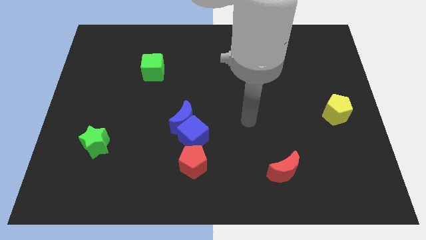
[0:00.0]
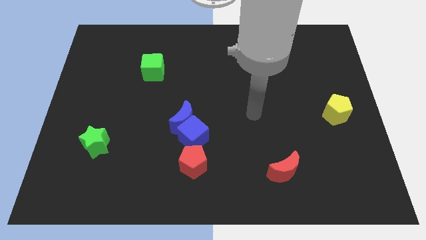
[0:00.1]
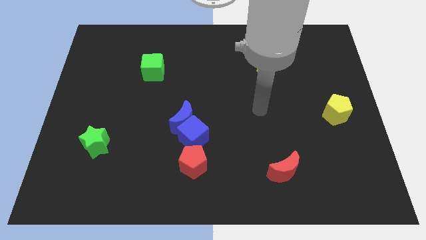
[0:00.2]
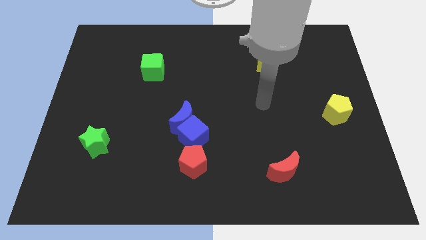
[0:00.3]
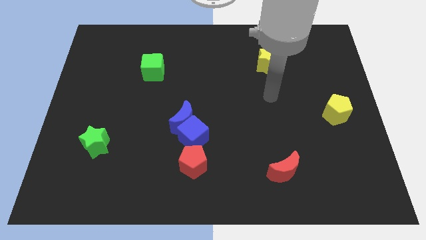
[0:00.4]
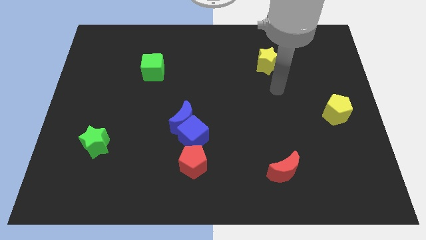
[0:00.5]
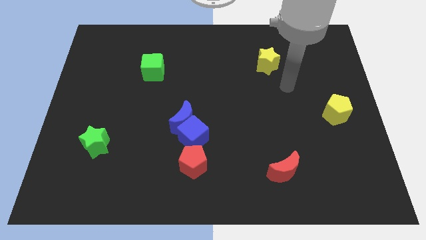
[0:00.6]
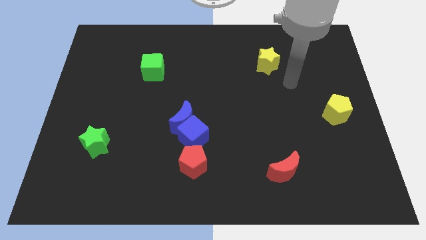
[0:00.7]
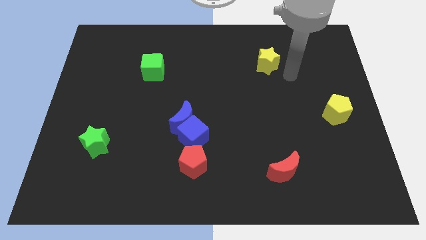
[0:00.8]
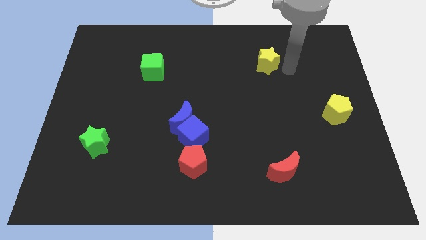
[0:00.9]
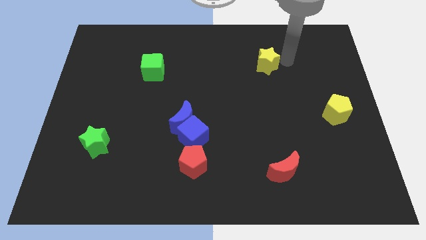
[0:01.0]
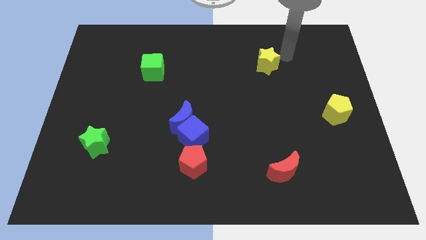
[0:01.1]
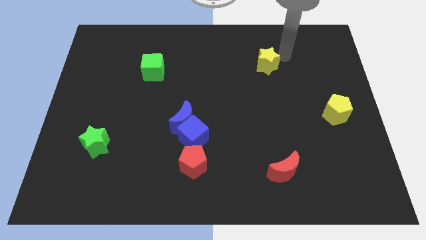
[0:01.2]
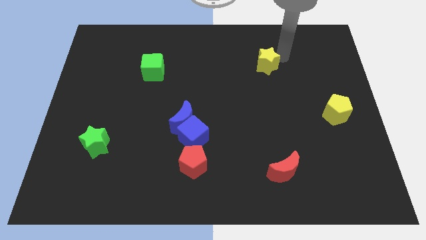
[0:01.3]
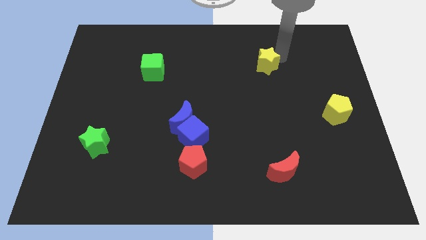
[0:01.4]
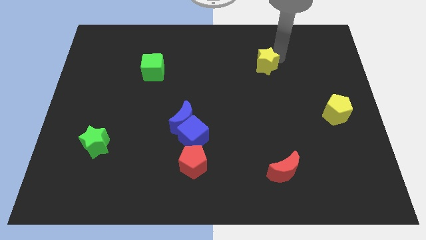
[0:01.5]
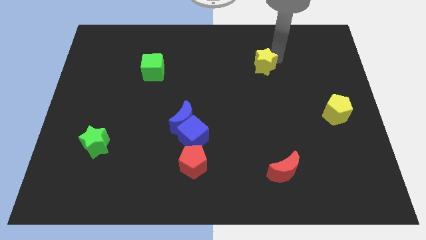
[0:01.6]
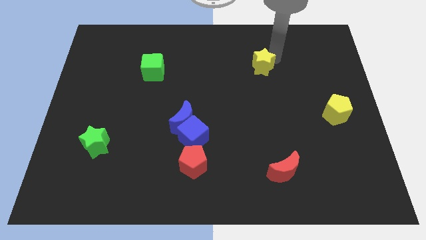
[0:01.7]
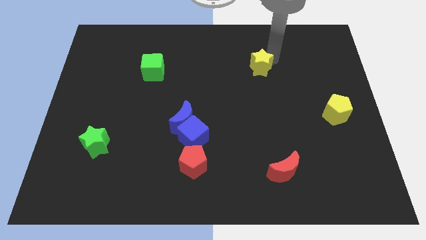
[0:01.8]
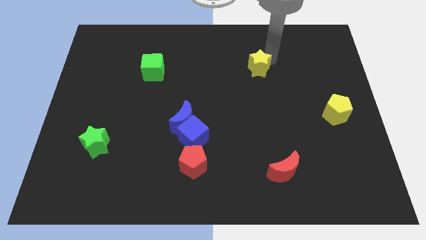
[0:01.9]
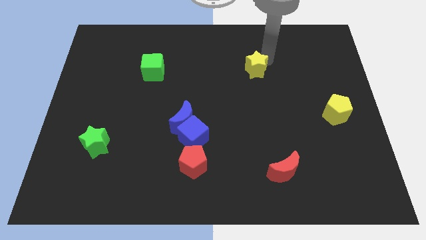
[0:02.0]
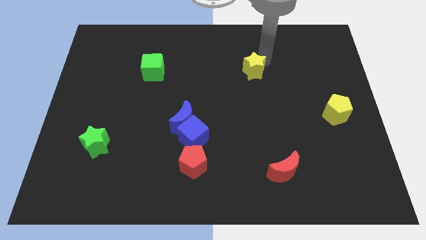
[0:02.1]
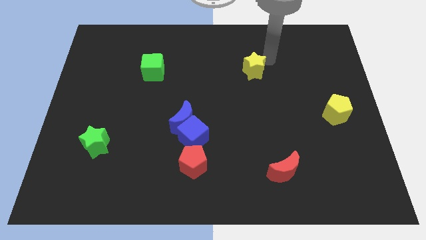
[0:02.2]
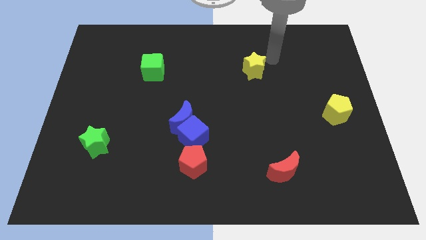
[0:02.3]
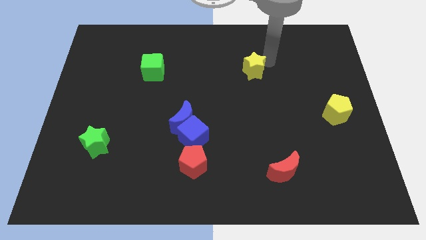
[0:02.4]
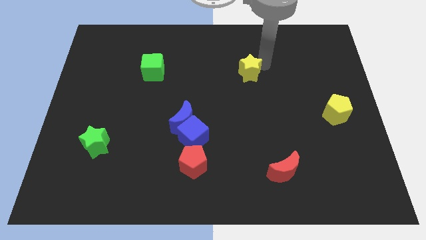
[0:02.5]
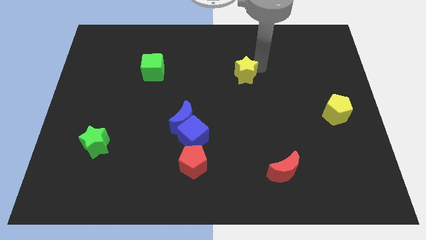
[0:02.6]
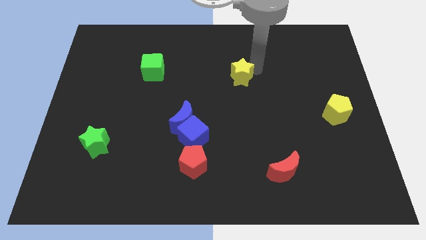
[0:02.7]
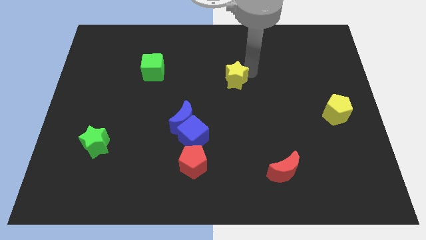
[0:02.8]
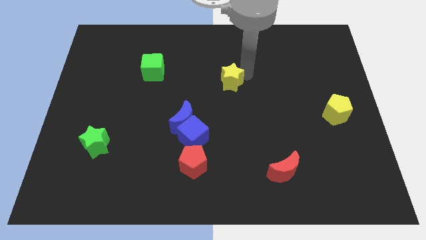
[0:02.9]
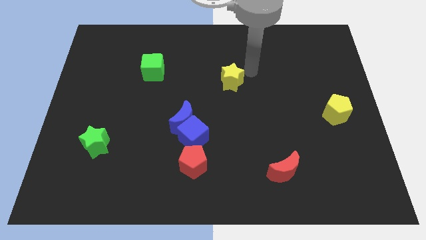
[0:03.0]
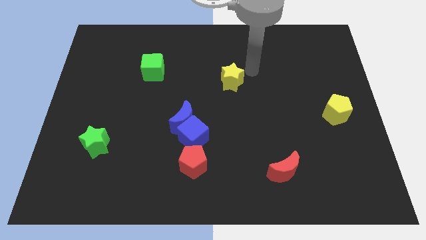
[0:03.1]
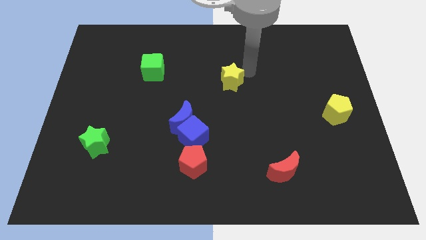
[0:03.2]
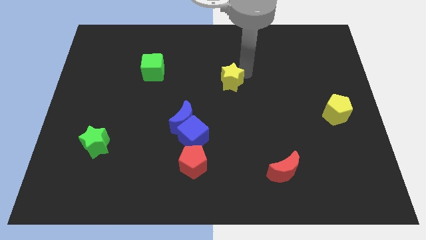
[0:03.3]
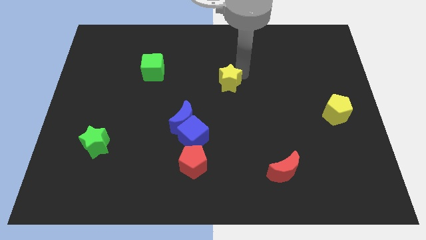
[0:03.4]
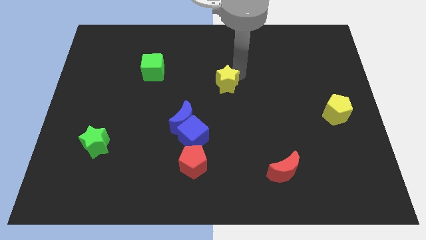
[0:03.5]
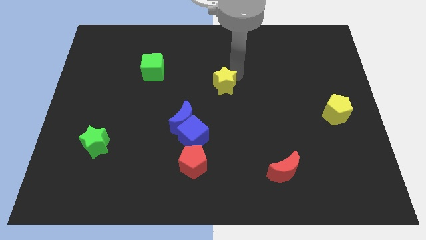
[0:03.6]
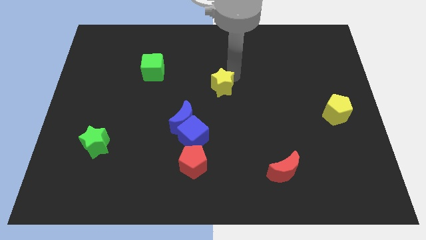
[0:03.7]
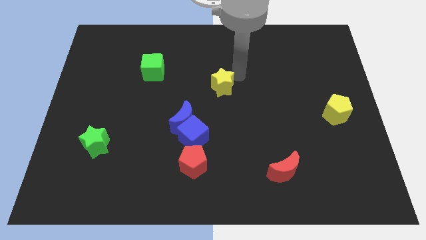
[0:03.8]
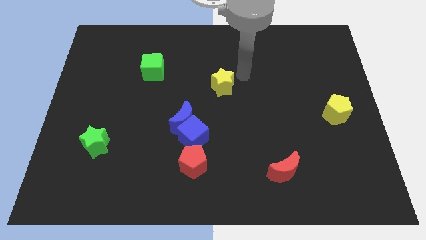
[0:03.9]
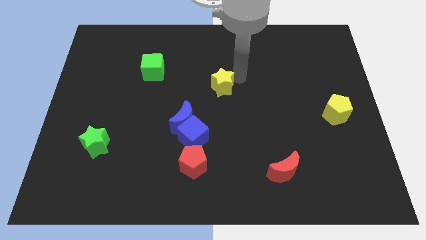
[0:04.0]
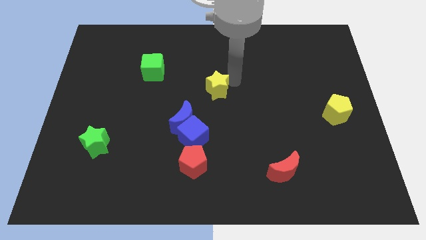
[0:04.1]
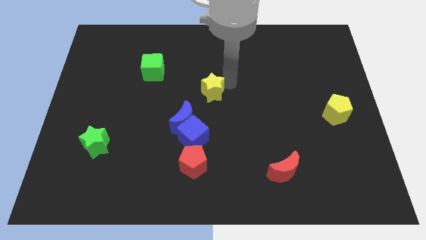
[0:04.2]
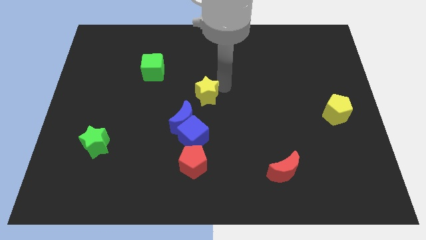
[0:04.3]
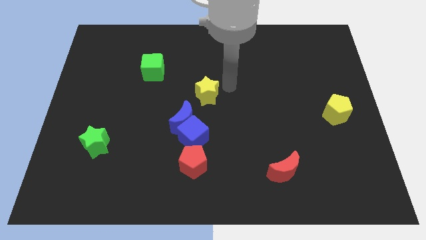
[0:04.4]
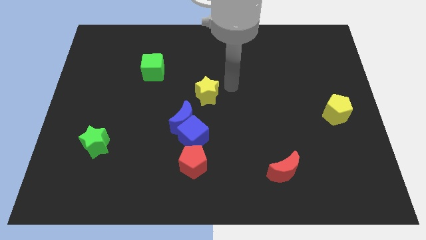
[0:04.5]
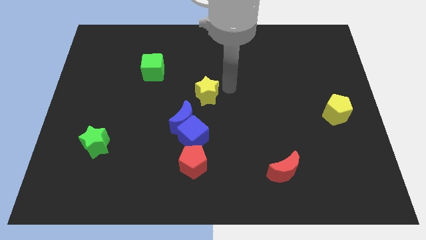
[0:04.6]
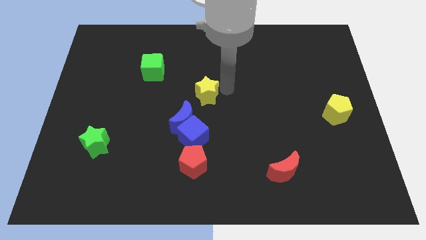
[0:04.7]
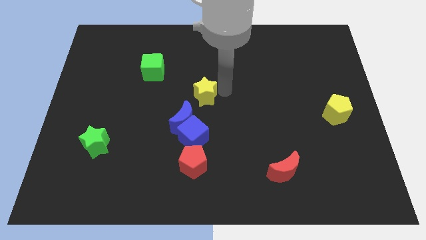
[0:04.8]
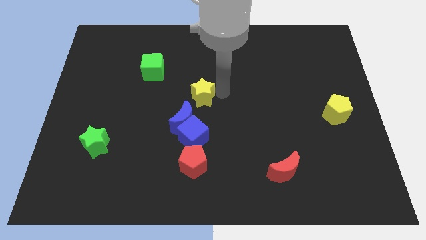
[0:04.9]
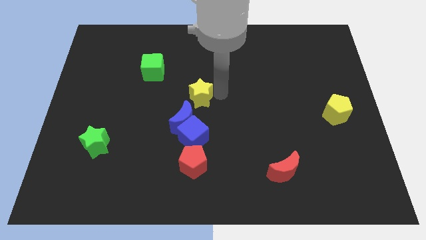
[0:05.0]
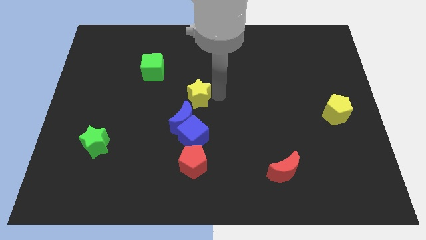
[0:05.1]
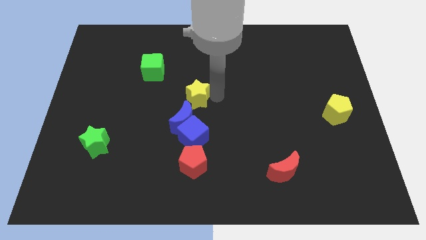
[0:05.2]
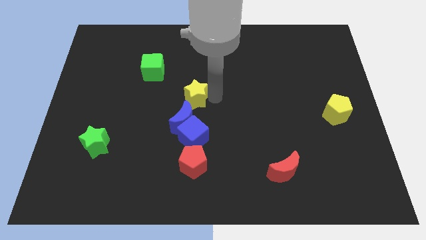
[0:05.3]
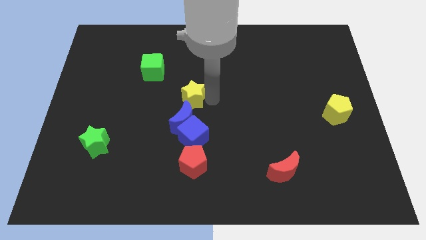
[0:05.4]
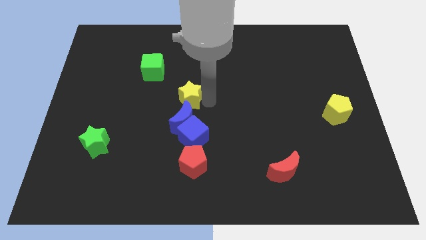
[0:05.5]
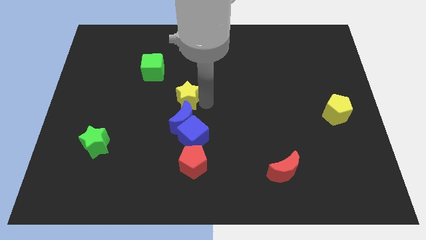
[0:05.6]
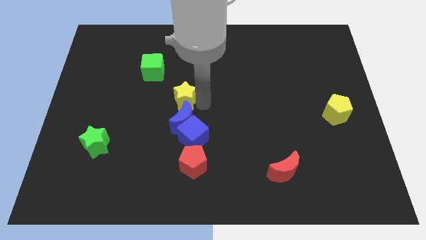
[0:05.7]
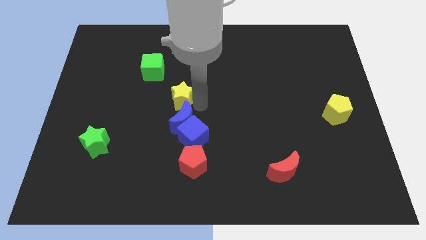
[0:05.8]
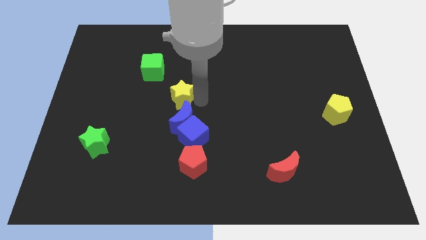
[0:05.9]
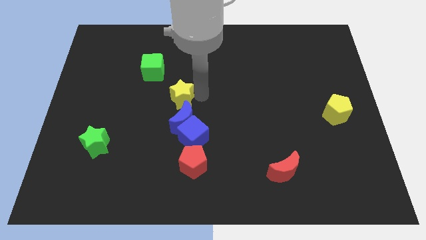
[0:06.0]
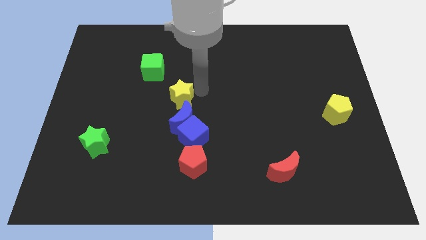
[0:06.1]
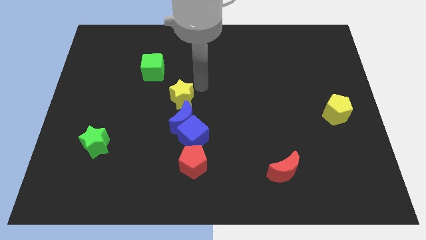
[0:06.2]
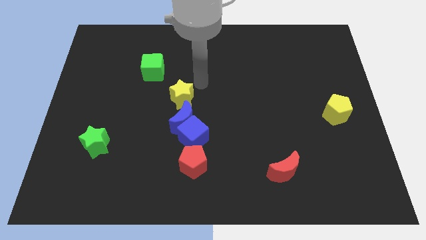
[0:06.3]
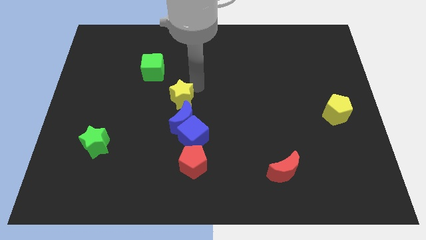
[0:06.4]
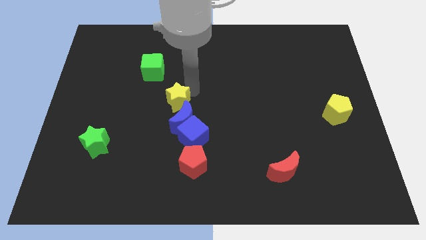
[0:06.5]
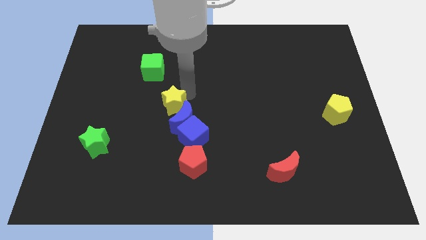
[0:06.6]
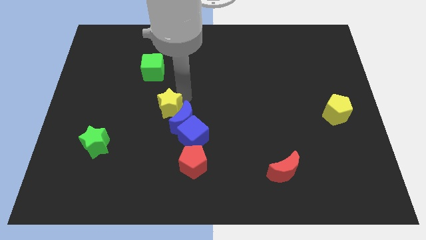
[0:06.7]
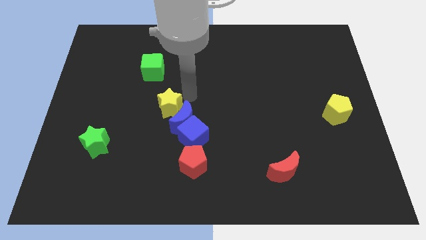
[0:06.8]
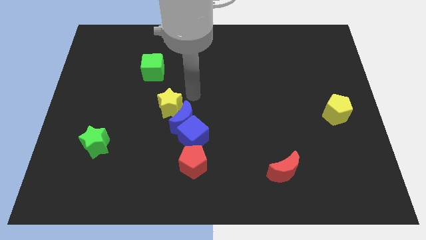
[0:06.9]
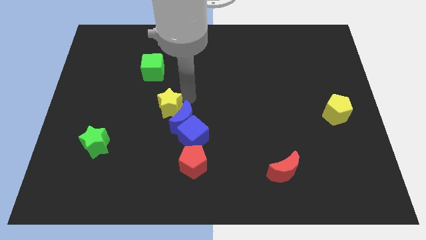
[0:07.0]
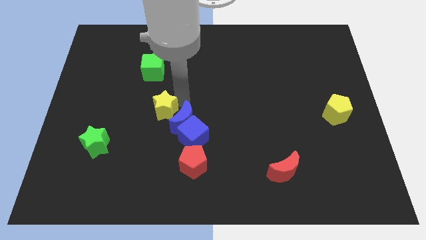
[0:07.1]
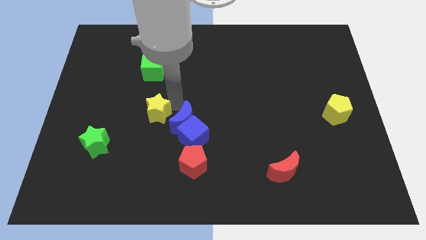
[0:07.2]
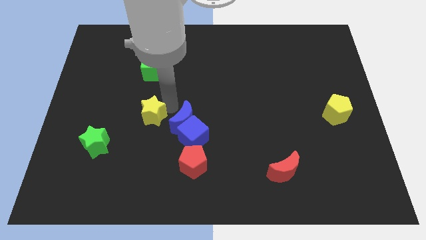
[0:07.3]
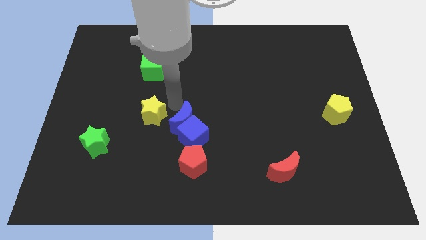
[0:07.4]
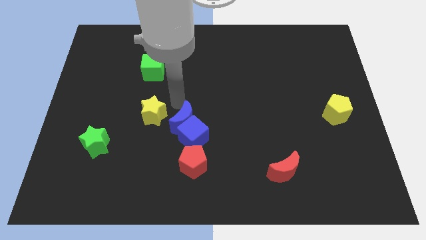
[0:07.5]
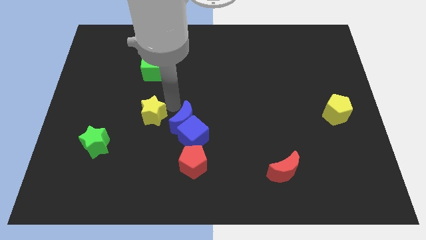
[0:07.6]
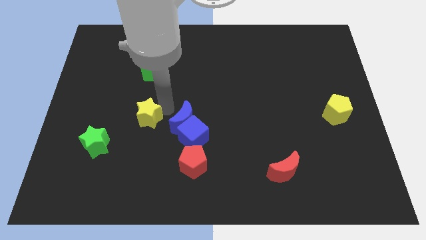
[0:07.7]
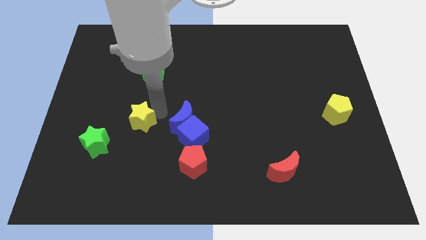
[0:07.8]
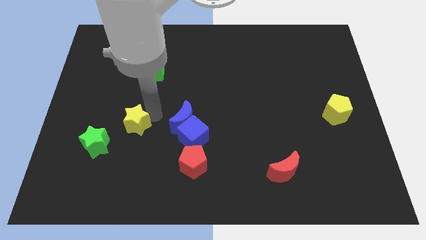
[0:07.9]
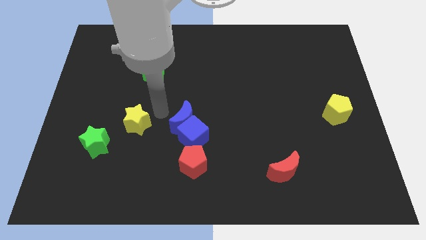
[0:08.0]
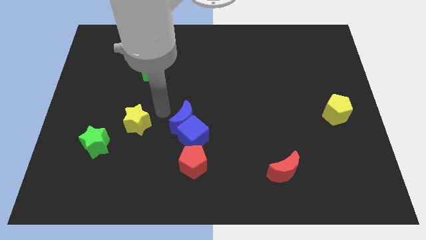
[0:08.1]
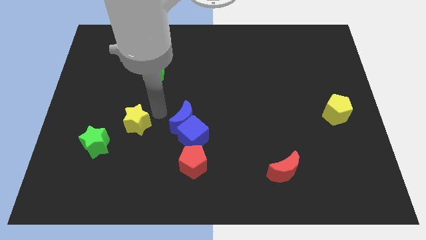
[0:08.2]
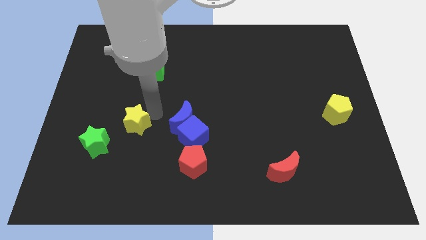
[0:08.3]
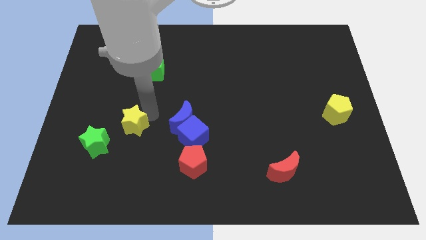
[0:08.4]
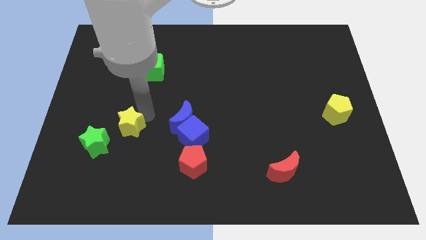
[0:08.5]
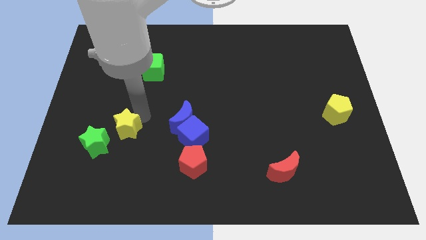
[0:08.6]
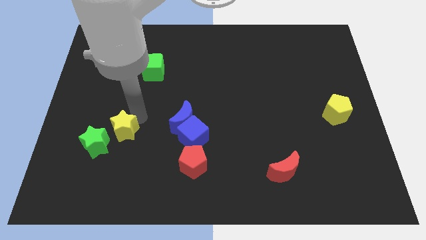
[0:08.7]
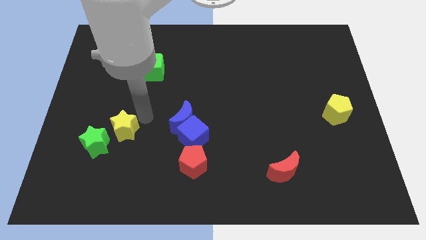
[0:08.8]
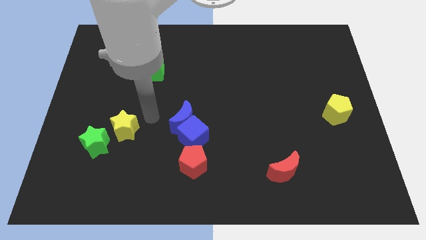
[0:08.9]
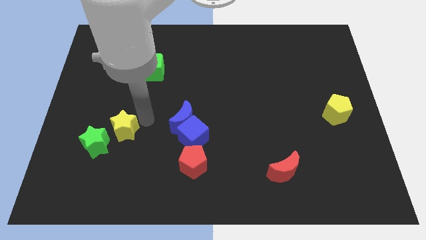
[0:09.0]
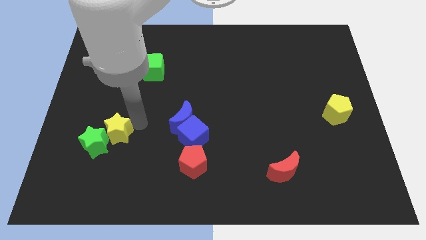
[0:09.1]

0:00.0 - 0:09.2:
slide the yellow star to the green star
